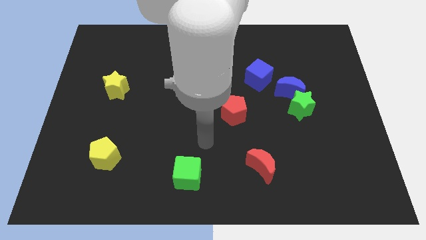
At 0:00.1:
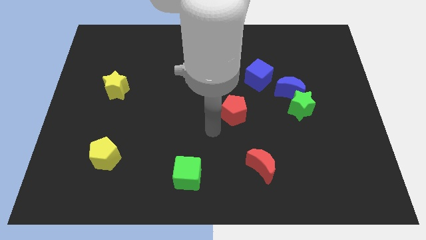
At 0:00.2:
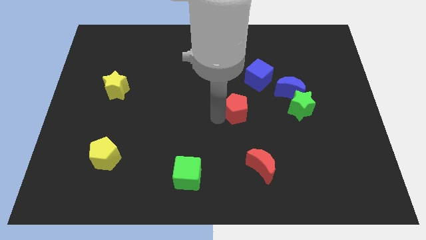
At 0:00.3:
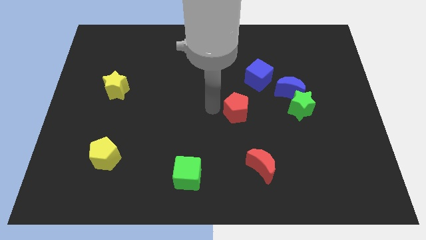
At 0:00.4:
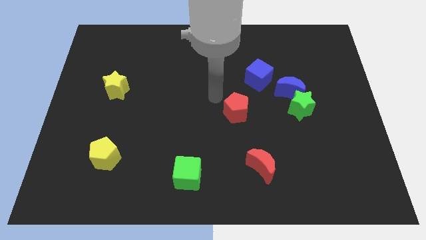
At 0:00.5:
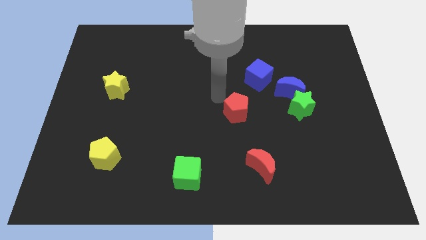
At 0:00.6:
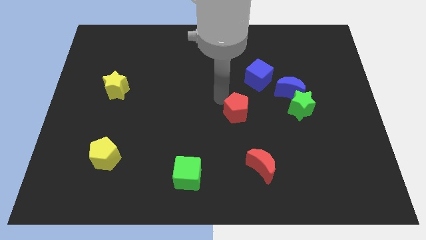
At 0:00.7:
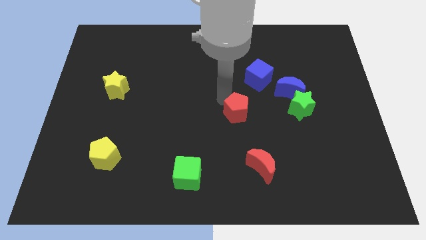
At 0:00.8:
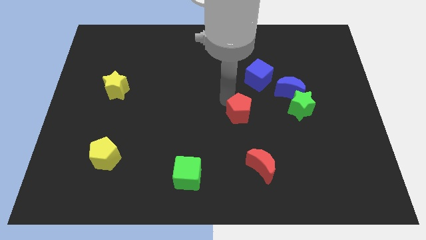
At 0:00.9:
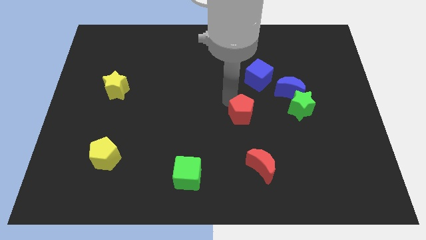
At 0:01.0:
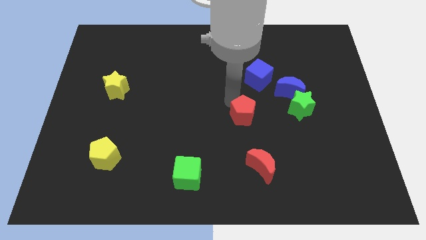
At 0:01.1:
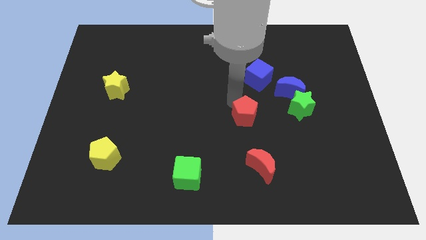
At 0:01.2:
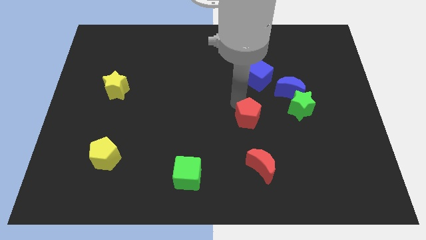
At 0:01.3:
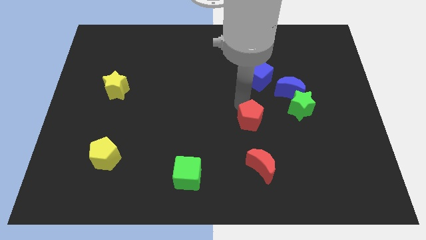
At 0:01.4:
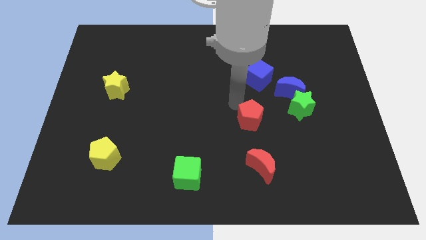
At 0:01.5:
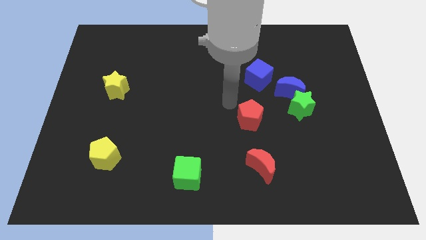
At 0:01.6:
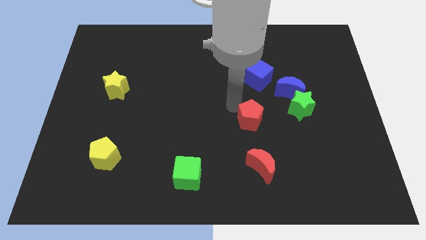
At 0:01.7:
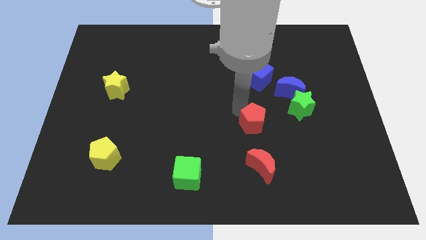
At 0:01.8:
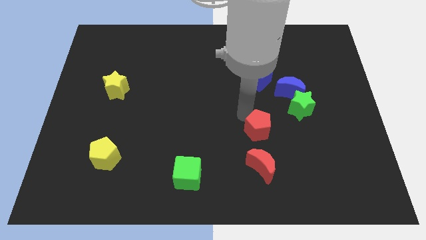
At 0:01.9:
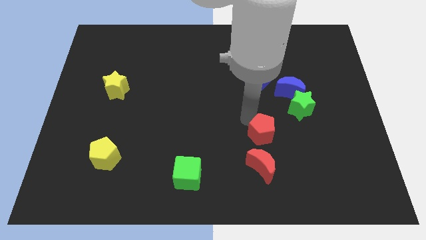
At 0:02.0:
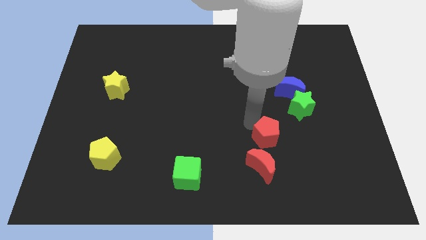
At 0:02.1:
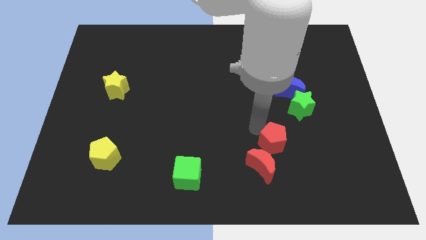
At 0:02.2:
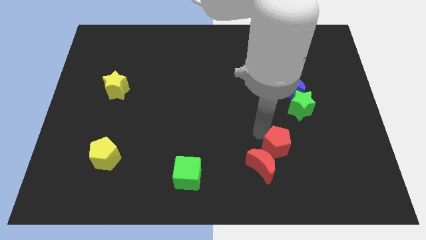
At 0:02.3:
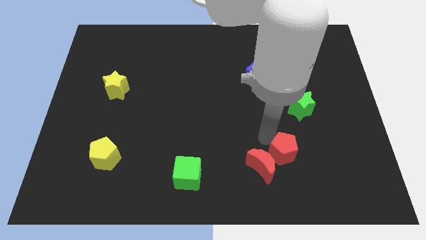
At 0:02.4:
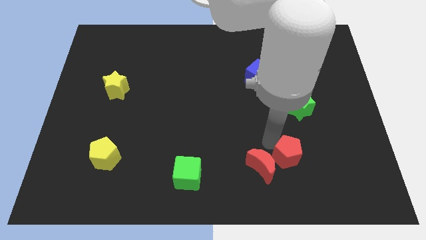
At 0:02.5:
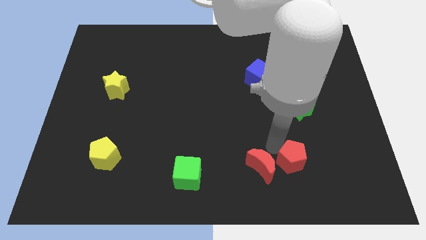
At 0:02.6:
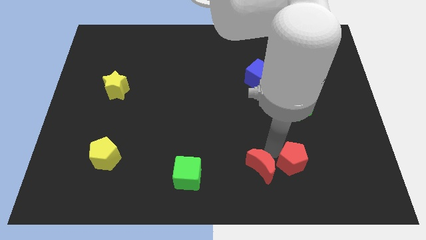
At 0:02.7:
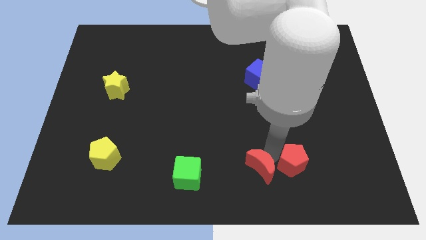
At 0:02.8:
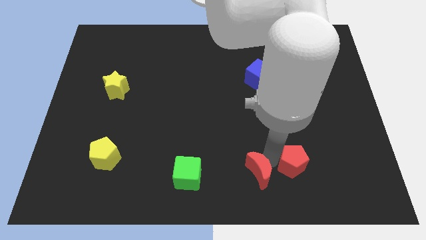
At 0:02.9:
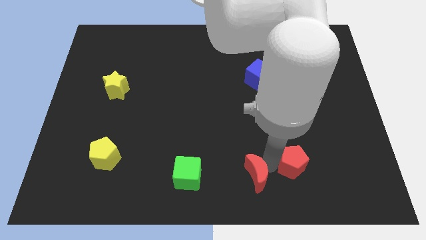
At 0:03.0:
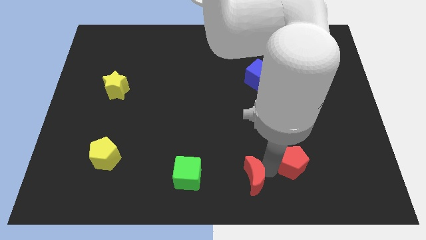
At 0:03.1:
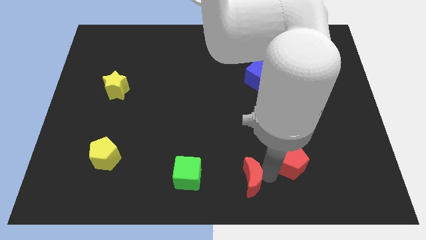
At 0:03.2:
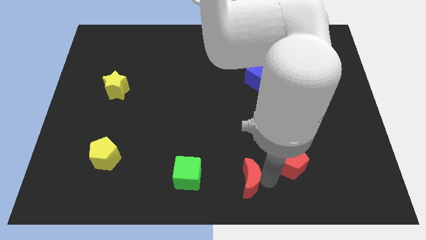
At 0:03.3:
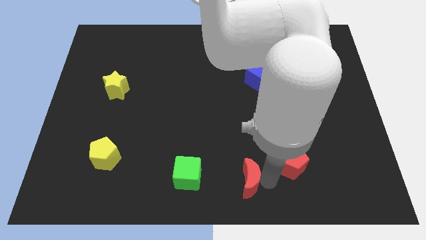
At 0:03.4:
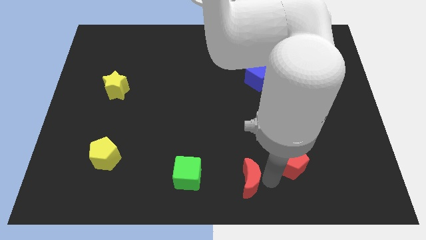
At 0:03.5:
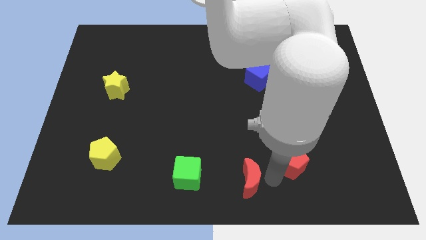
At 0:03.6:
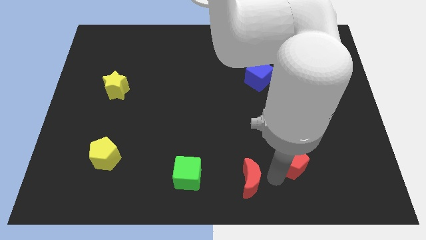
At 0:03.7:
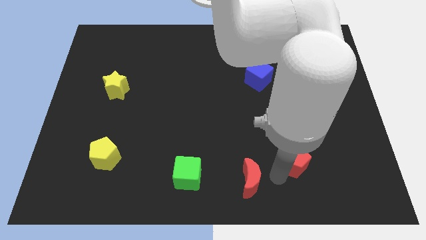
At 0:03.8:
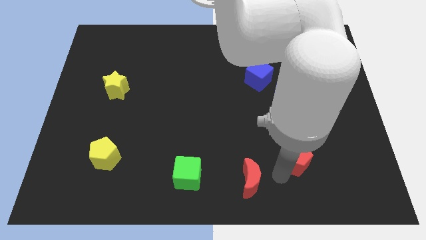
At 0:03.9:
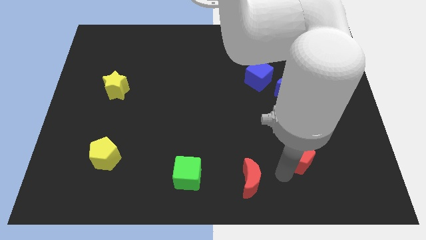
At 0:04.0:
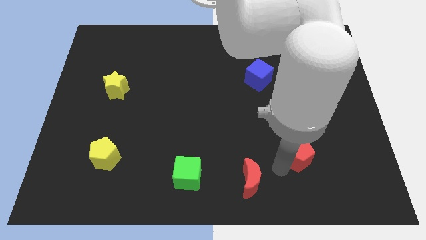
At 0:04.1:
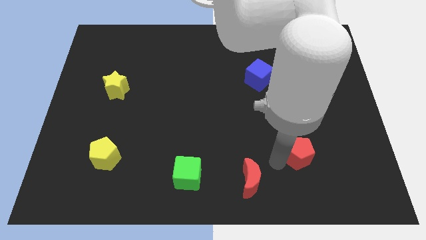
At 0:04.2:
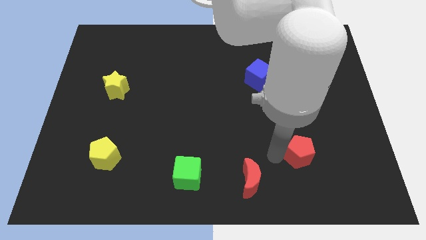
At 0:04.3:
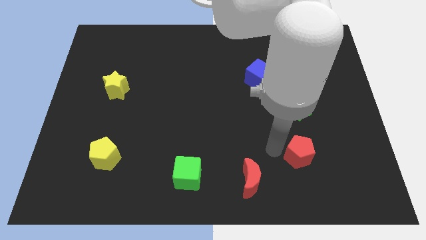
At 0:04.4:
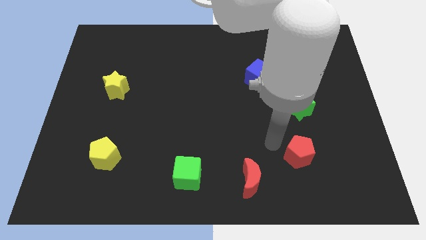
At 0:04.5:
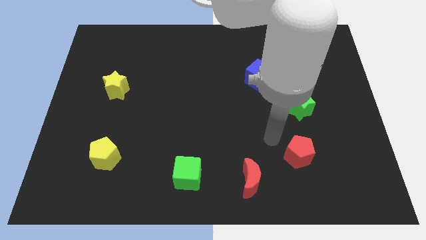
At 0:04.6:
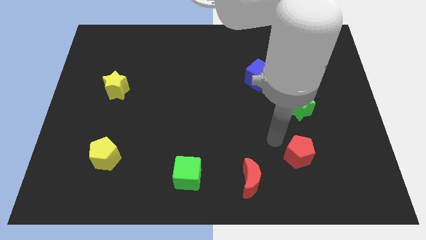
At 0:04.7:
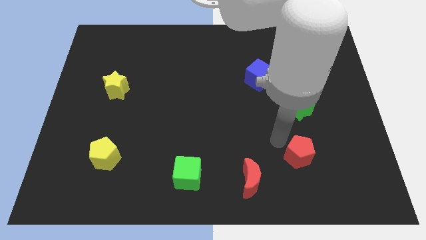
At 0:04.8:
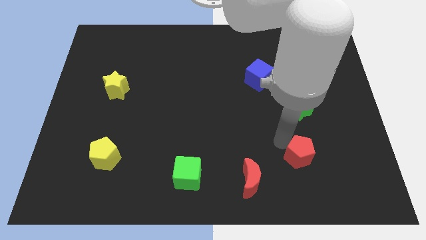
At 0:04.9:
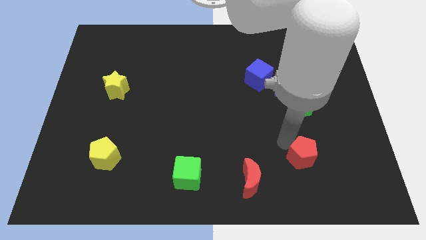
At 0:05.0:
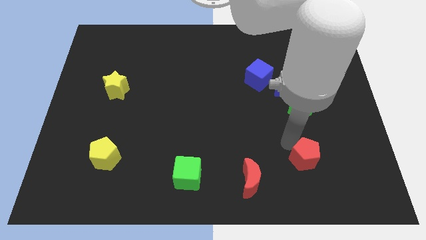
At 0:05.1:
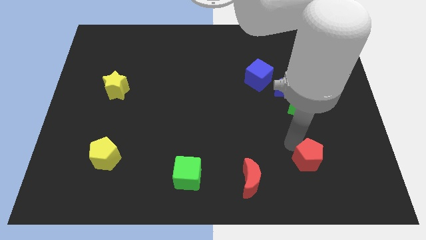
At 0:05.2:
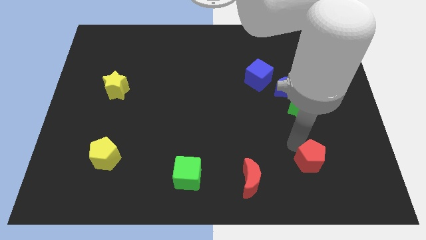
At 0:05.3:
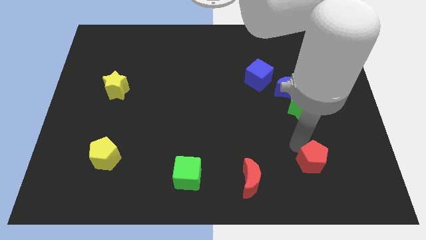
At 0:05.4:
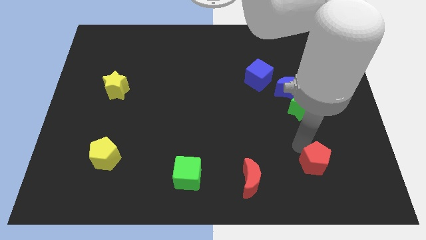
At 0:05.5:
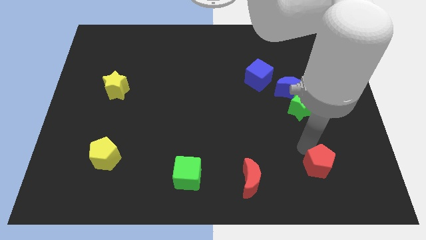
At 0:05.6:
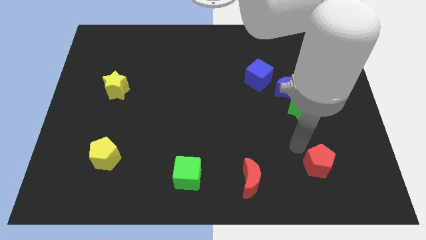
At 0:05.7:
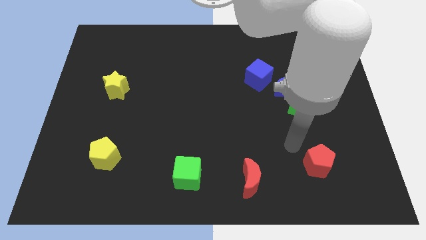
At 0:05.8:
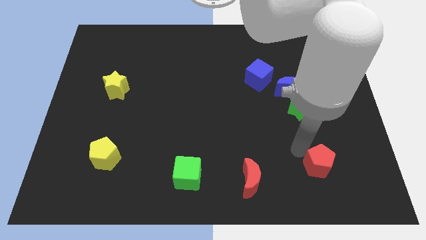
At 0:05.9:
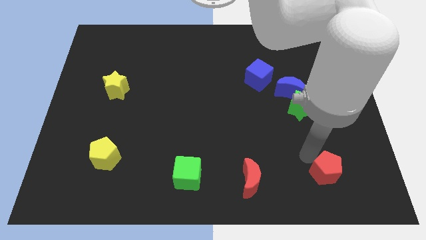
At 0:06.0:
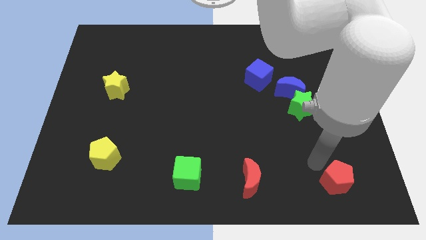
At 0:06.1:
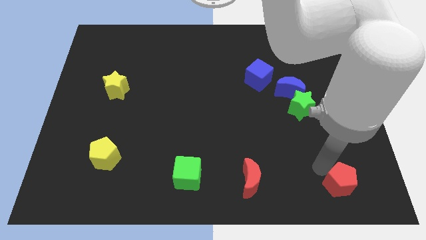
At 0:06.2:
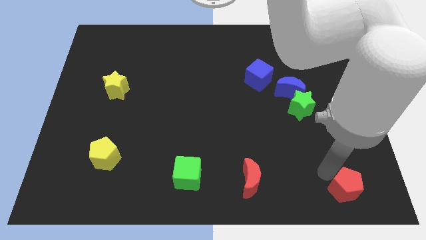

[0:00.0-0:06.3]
push the red pentagon to the bottom right corner
